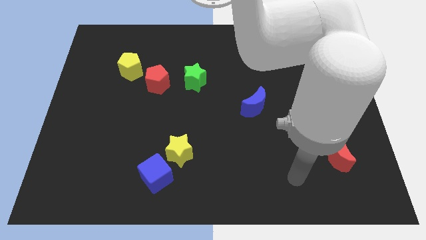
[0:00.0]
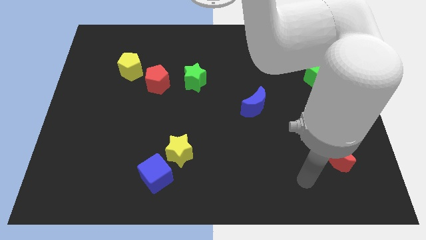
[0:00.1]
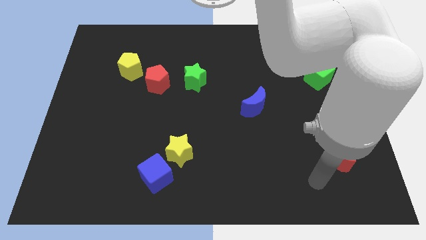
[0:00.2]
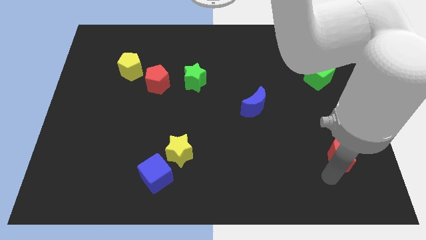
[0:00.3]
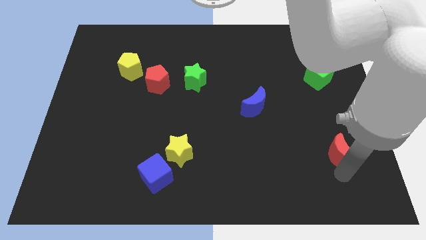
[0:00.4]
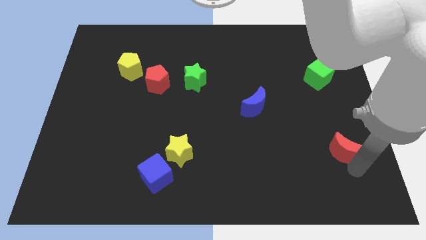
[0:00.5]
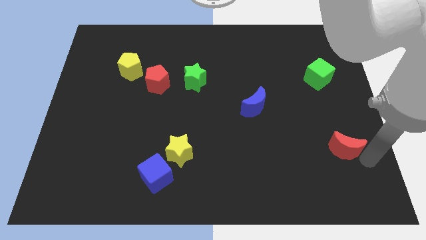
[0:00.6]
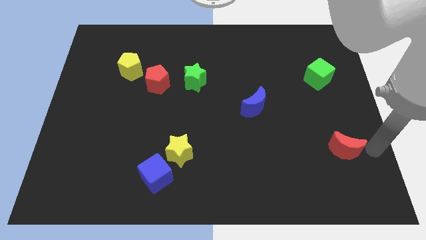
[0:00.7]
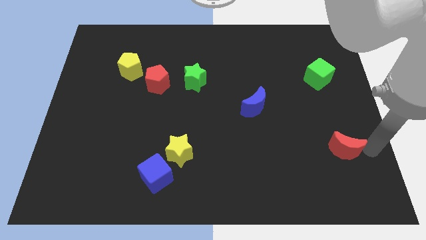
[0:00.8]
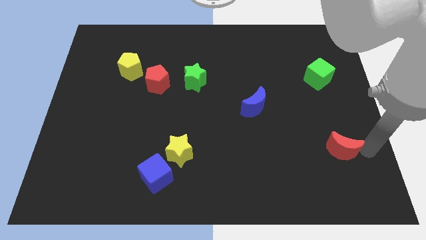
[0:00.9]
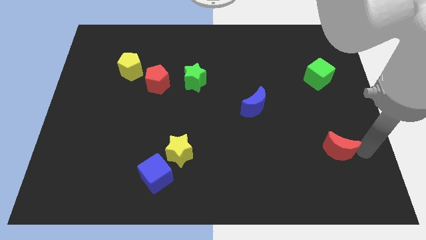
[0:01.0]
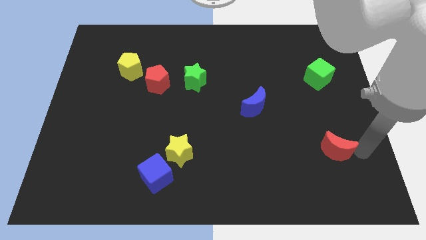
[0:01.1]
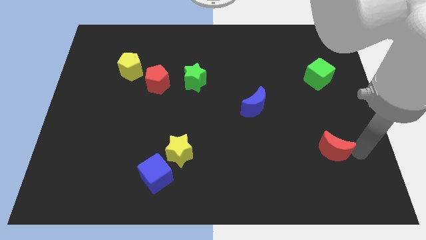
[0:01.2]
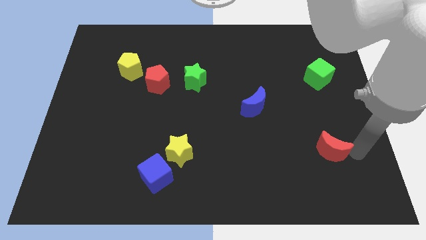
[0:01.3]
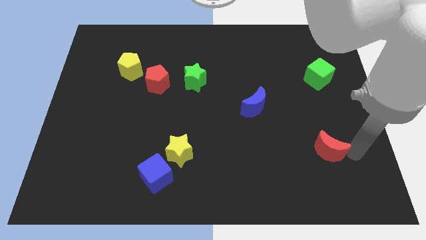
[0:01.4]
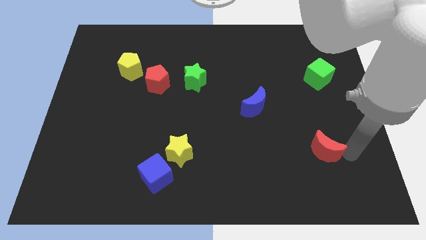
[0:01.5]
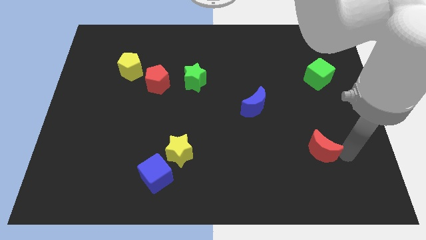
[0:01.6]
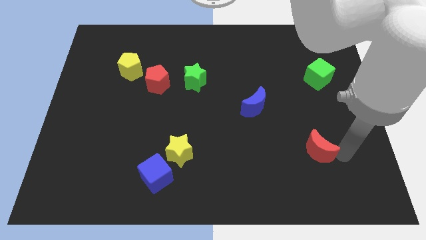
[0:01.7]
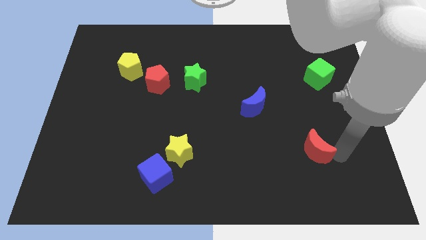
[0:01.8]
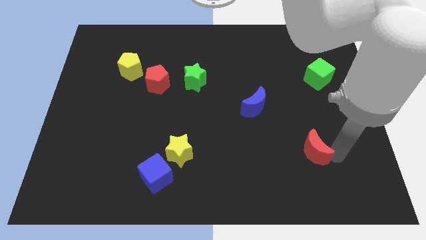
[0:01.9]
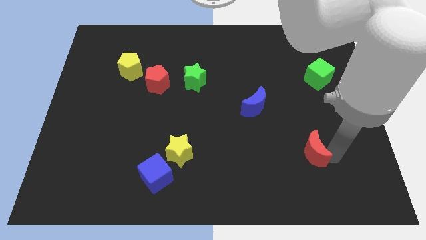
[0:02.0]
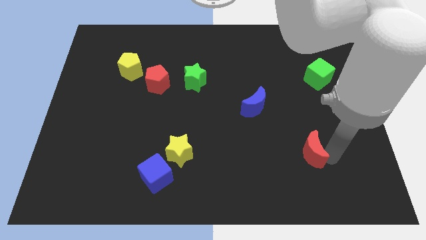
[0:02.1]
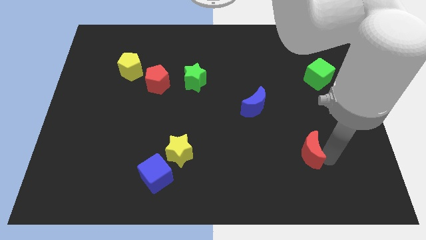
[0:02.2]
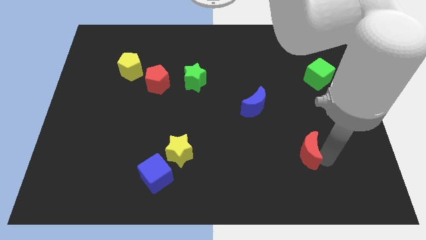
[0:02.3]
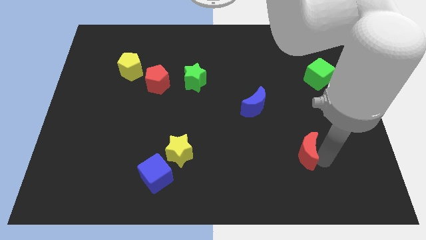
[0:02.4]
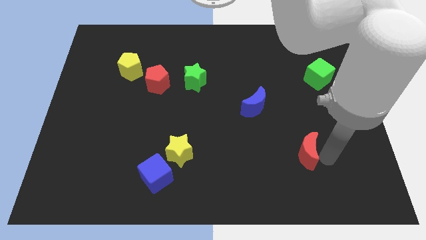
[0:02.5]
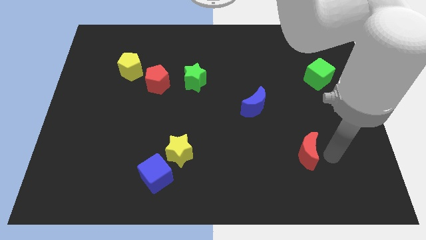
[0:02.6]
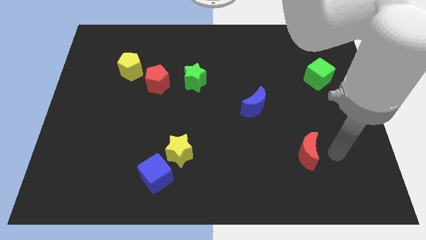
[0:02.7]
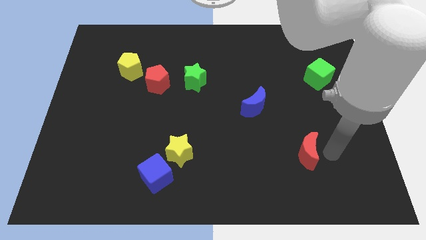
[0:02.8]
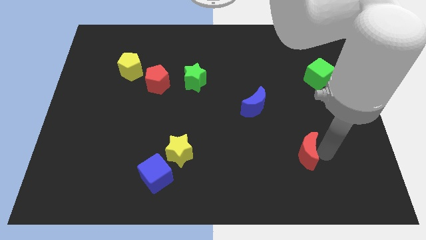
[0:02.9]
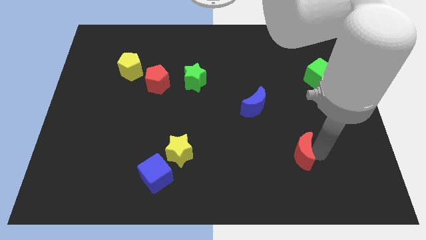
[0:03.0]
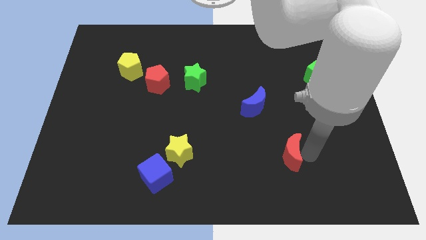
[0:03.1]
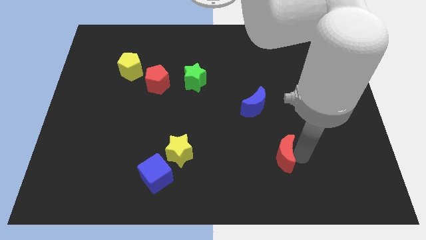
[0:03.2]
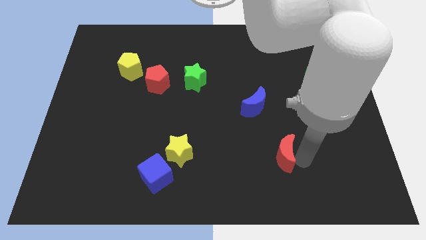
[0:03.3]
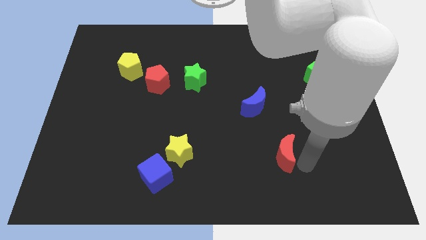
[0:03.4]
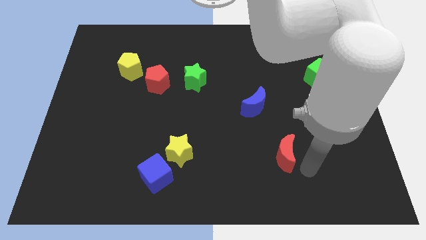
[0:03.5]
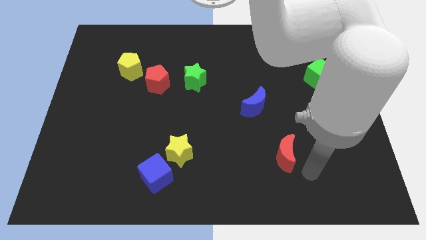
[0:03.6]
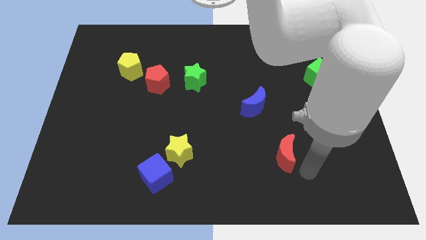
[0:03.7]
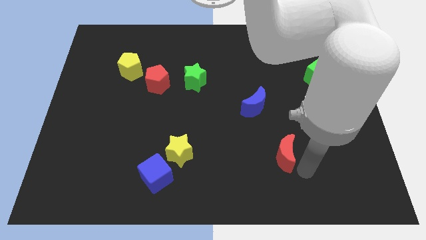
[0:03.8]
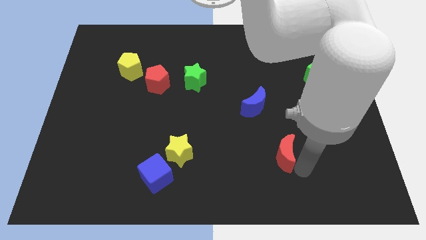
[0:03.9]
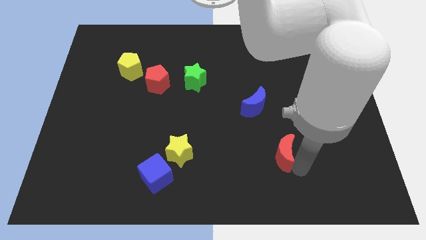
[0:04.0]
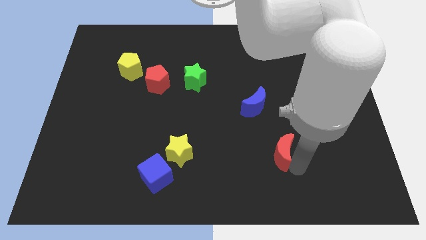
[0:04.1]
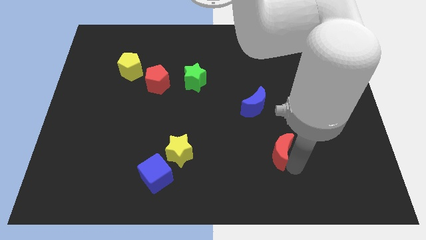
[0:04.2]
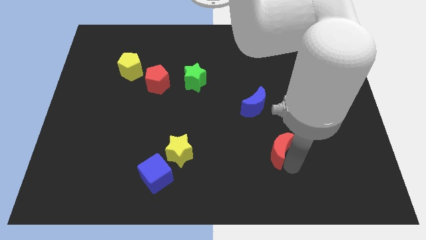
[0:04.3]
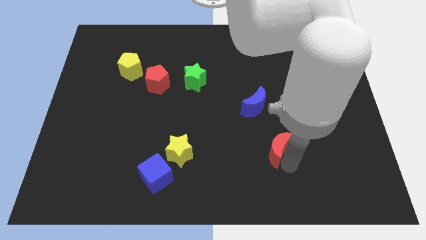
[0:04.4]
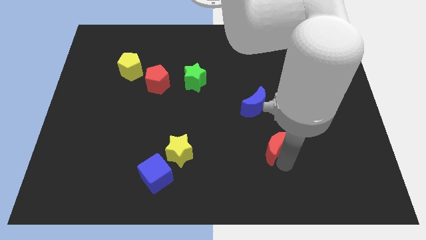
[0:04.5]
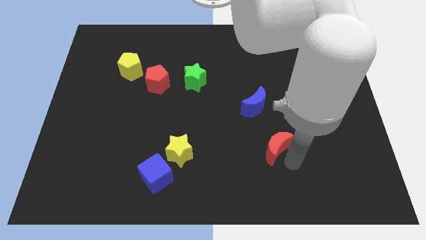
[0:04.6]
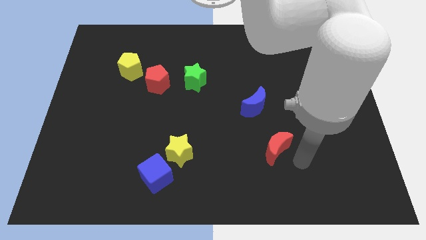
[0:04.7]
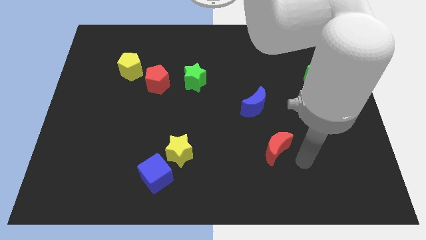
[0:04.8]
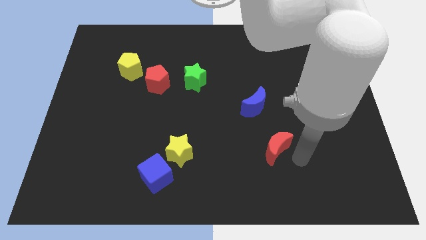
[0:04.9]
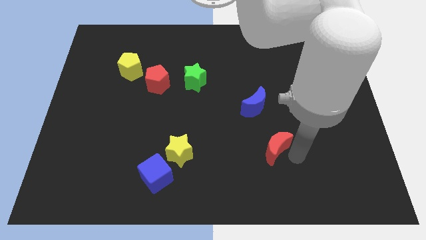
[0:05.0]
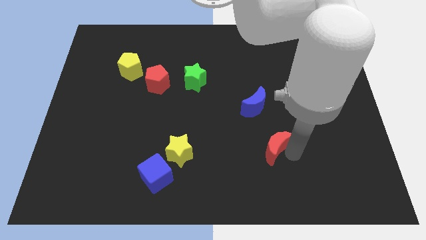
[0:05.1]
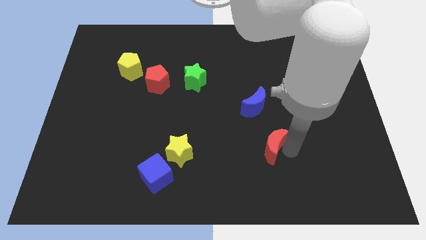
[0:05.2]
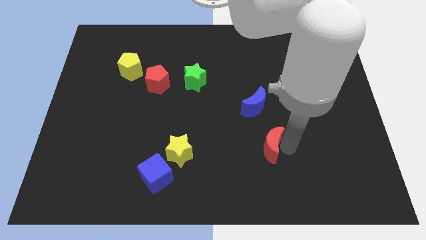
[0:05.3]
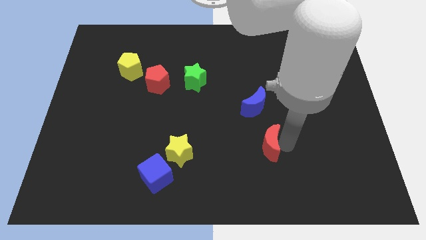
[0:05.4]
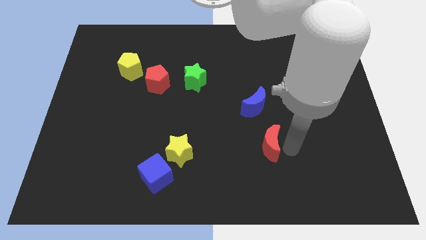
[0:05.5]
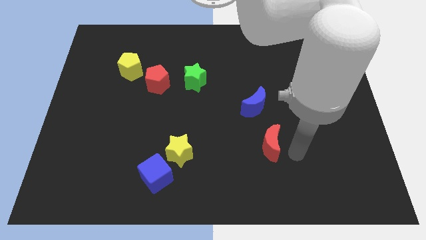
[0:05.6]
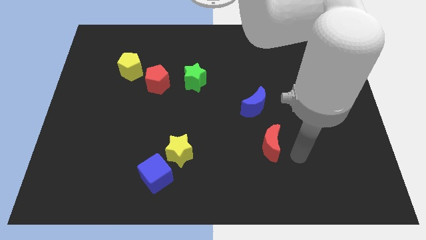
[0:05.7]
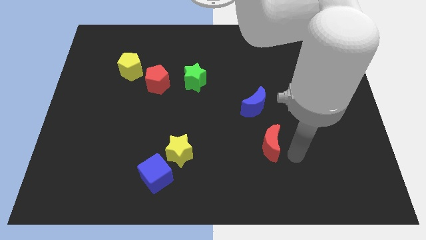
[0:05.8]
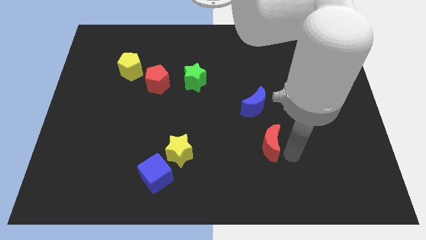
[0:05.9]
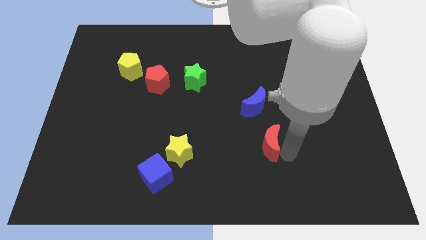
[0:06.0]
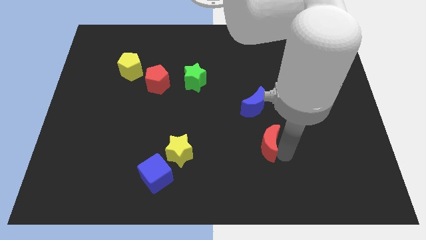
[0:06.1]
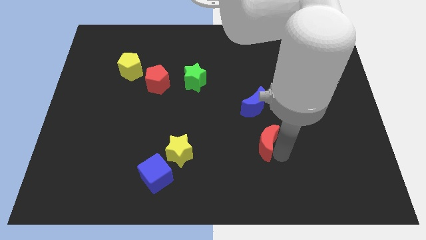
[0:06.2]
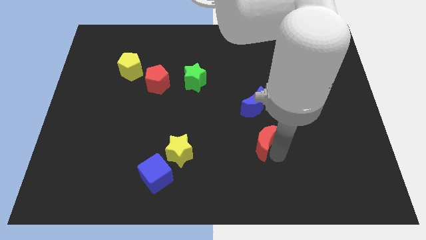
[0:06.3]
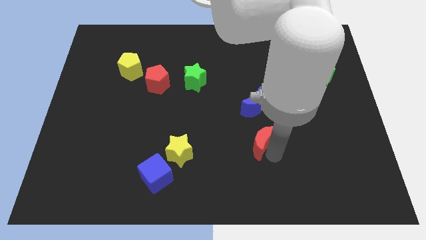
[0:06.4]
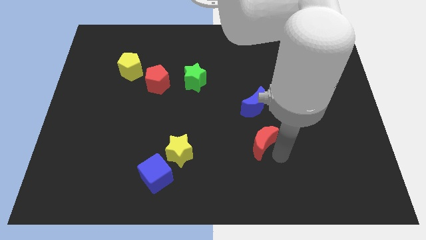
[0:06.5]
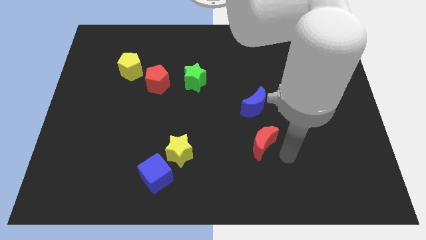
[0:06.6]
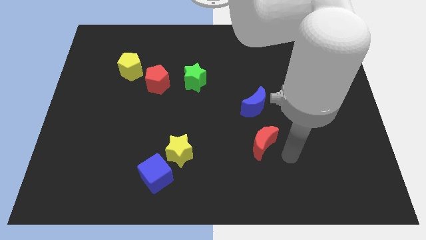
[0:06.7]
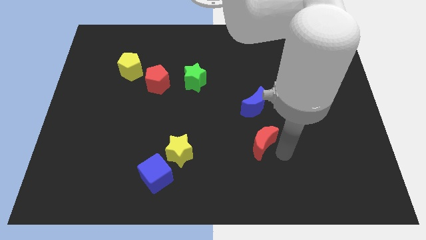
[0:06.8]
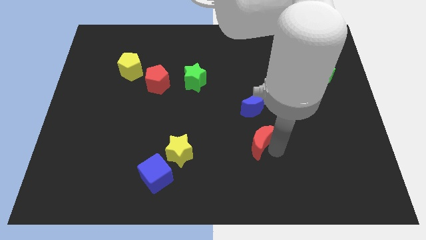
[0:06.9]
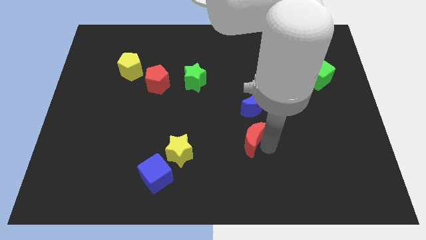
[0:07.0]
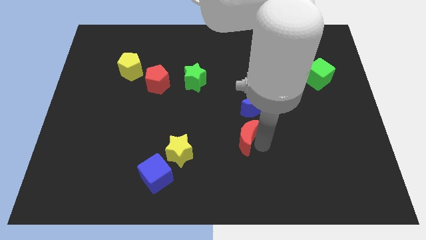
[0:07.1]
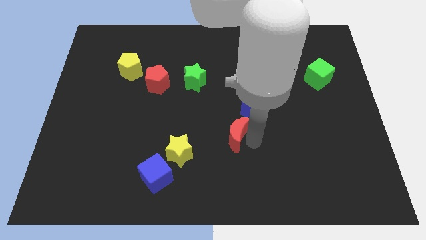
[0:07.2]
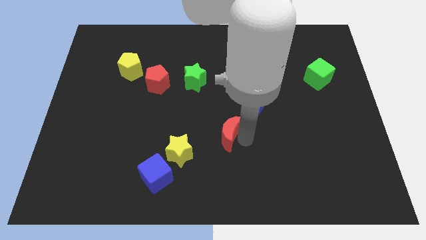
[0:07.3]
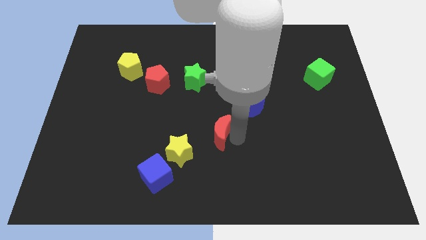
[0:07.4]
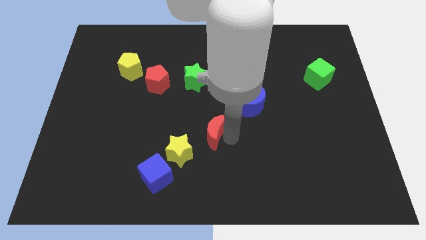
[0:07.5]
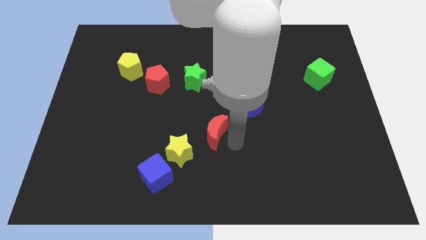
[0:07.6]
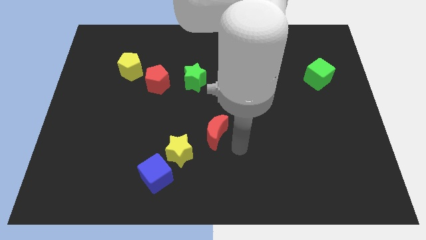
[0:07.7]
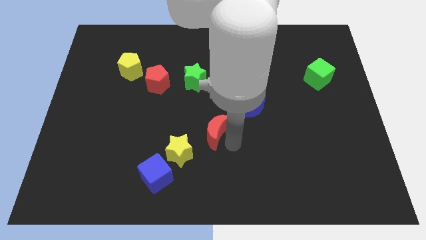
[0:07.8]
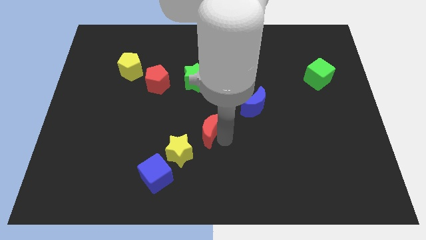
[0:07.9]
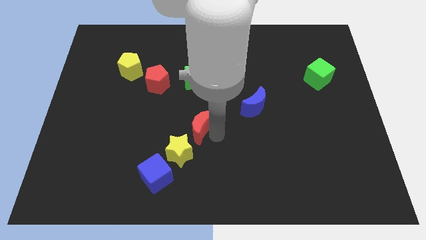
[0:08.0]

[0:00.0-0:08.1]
slide the red moon to the top of the yellow star
